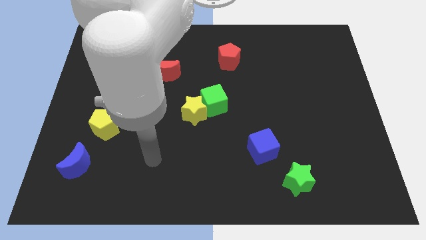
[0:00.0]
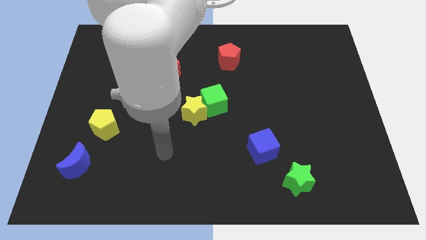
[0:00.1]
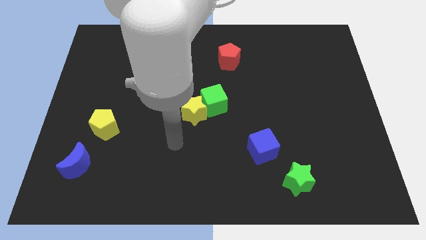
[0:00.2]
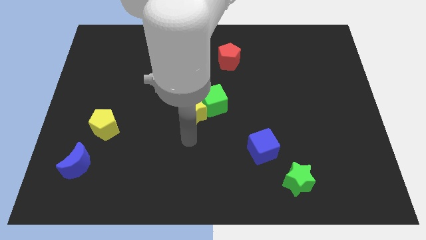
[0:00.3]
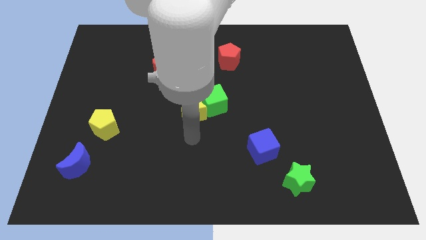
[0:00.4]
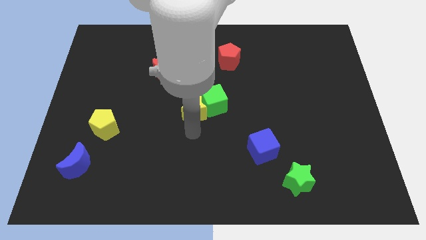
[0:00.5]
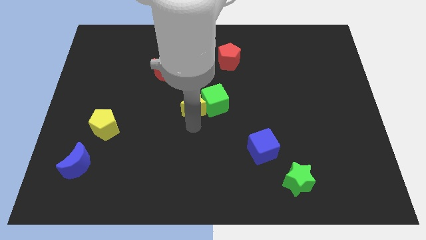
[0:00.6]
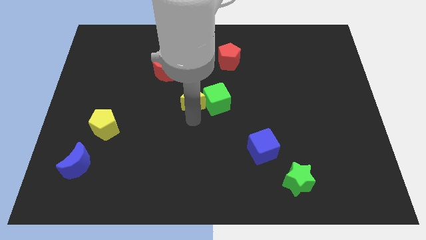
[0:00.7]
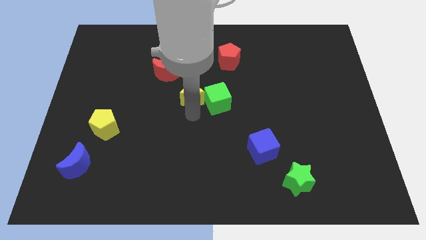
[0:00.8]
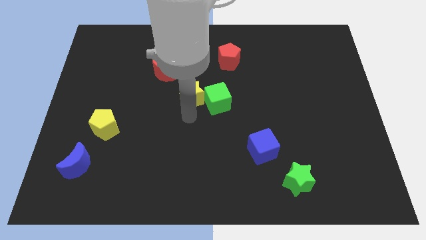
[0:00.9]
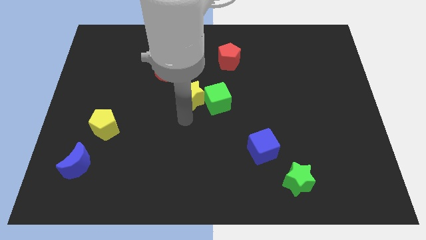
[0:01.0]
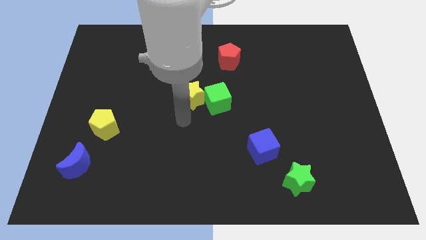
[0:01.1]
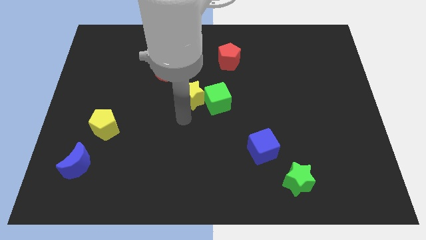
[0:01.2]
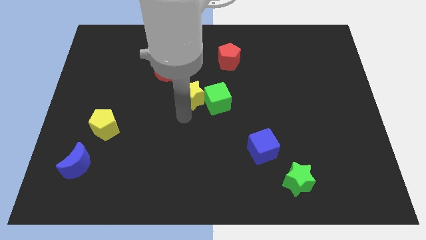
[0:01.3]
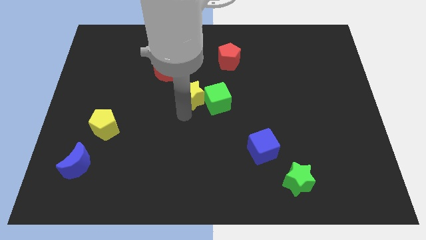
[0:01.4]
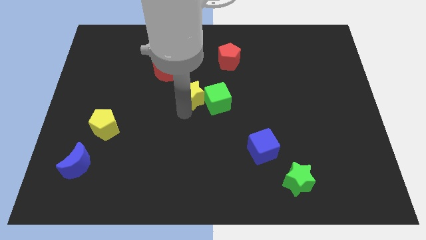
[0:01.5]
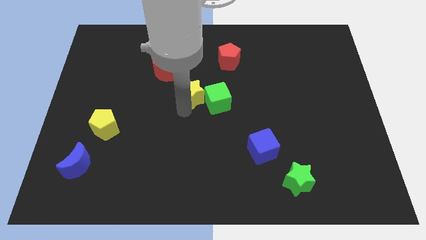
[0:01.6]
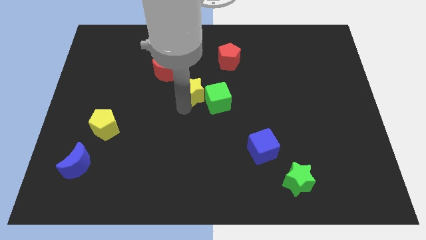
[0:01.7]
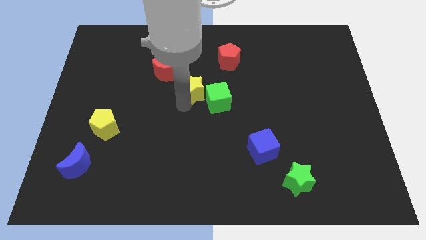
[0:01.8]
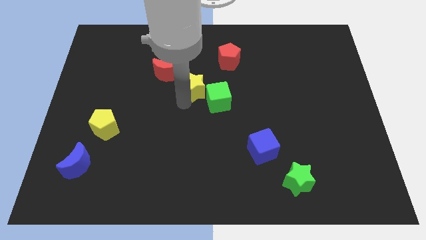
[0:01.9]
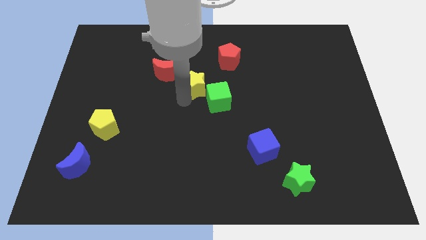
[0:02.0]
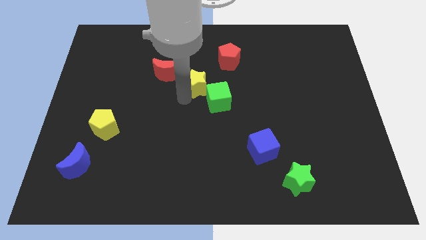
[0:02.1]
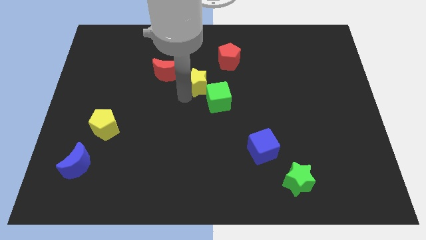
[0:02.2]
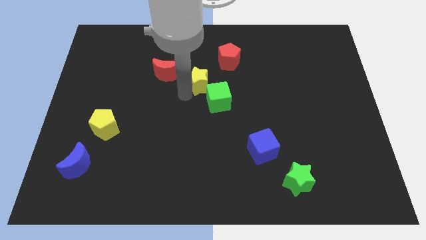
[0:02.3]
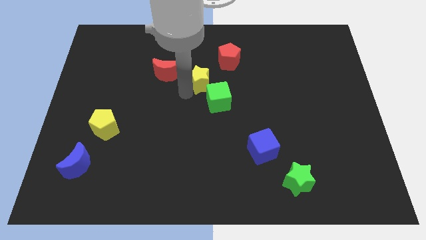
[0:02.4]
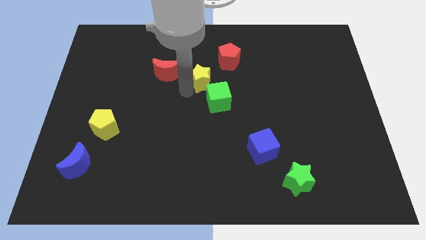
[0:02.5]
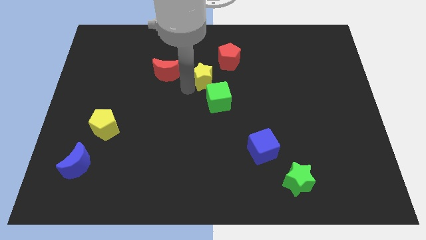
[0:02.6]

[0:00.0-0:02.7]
move the yellow star a bit up and to the right

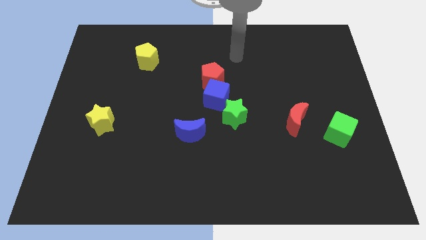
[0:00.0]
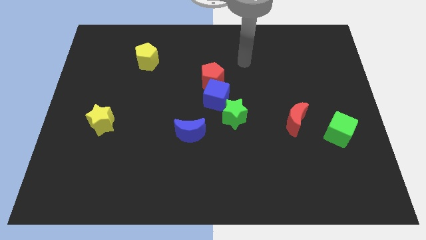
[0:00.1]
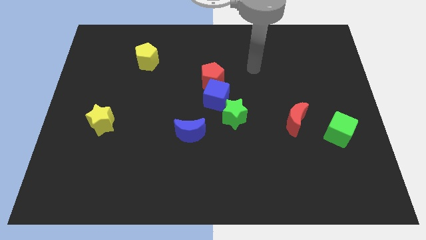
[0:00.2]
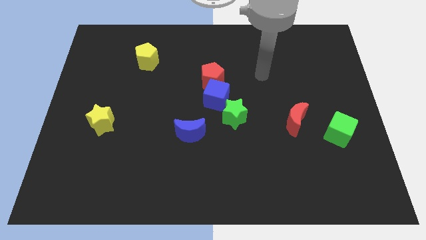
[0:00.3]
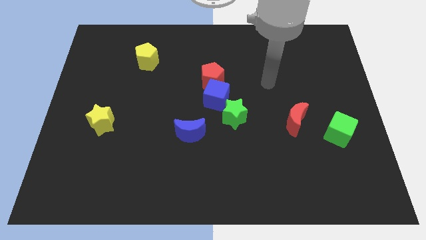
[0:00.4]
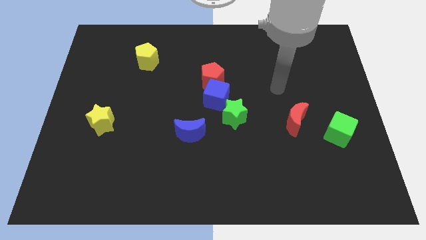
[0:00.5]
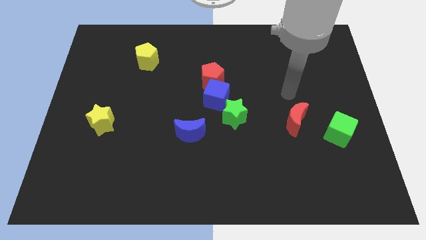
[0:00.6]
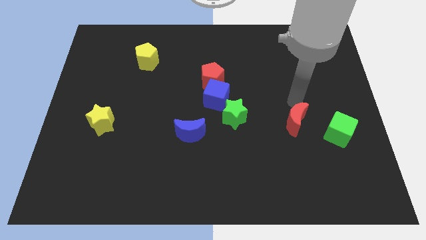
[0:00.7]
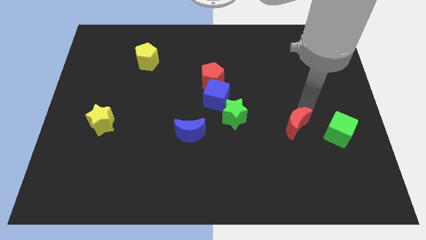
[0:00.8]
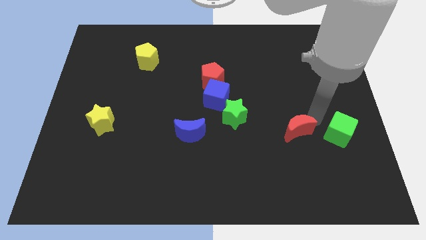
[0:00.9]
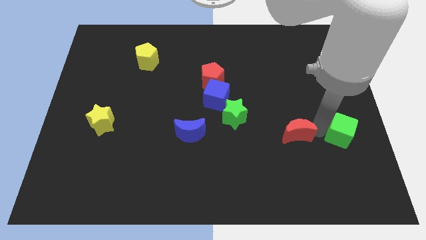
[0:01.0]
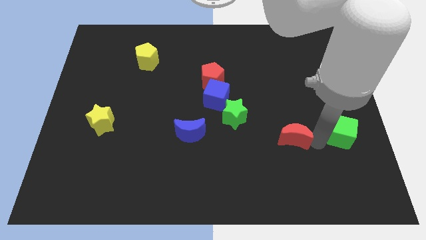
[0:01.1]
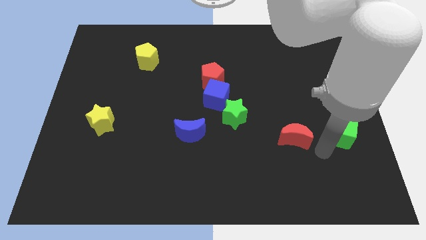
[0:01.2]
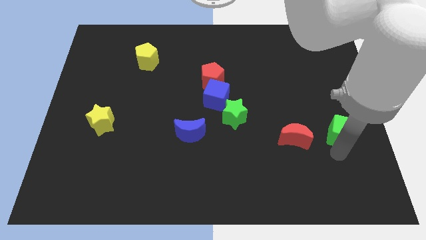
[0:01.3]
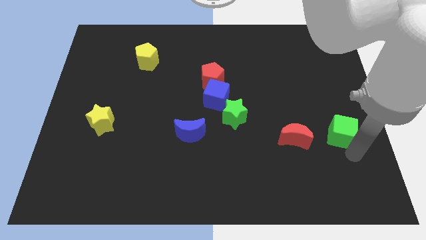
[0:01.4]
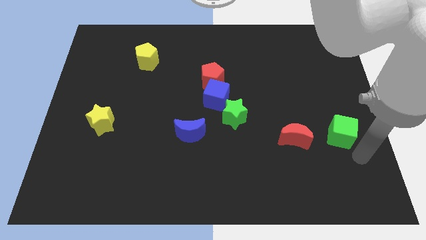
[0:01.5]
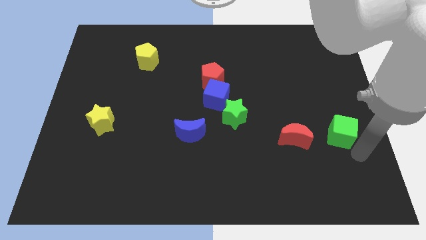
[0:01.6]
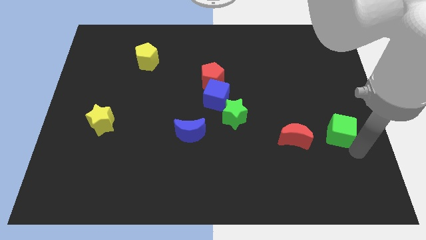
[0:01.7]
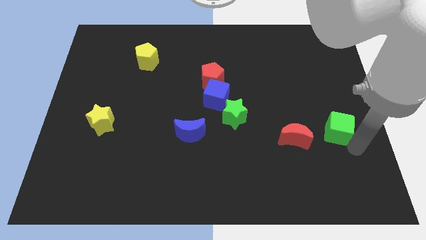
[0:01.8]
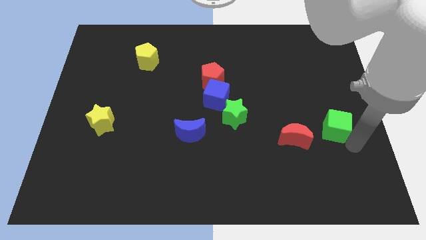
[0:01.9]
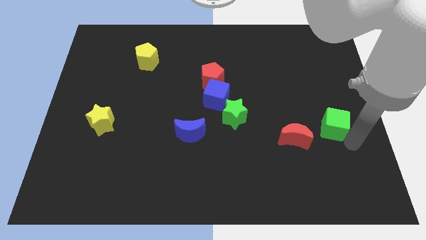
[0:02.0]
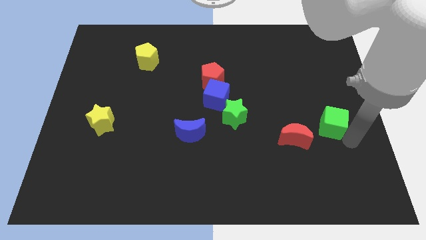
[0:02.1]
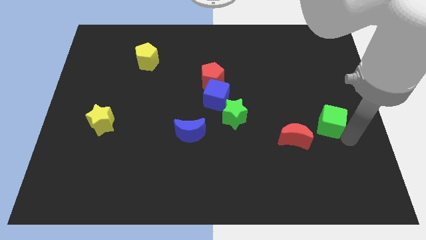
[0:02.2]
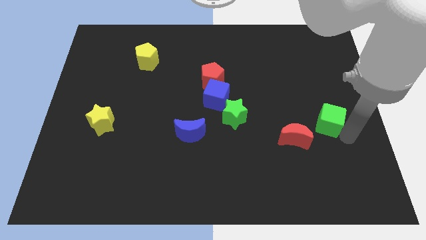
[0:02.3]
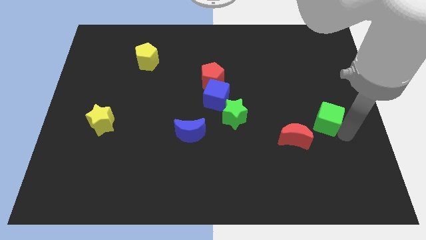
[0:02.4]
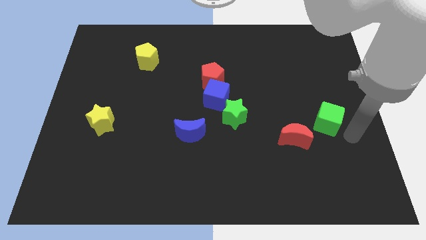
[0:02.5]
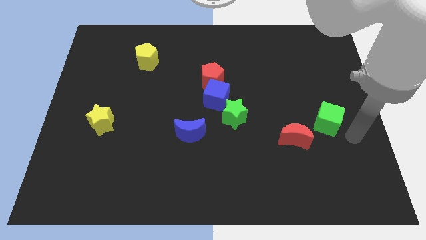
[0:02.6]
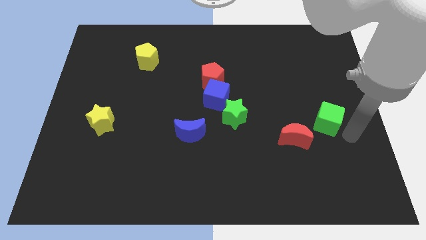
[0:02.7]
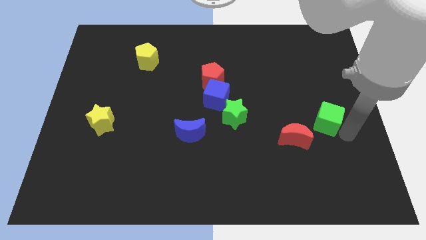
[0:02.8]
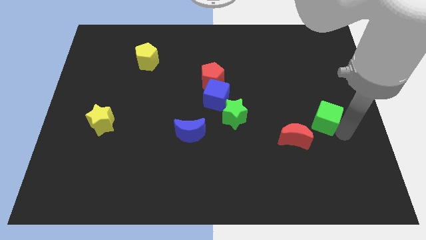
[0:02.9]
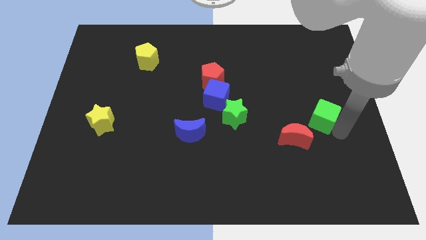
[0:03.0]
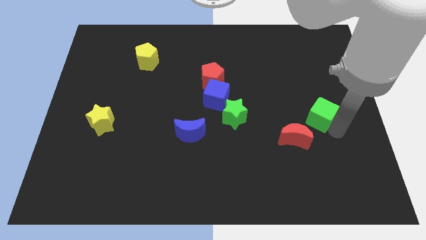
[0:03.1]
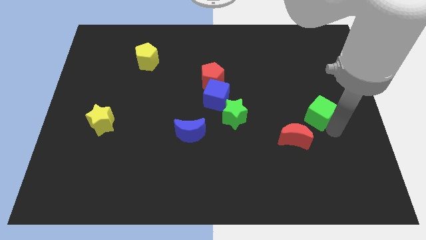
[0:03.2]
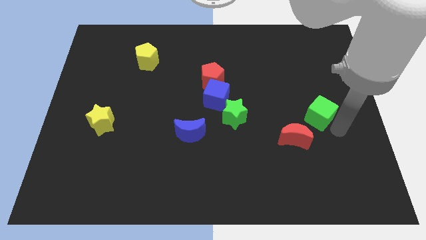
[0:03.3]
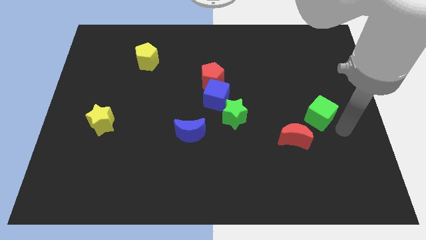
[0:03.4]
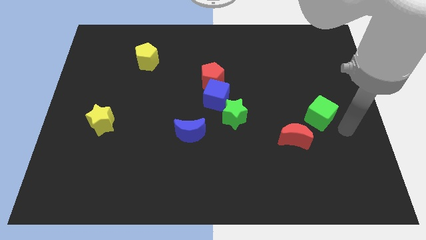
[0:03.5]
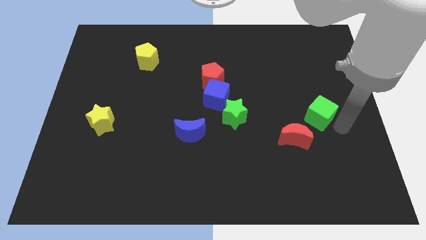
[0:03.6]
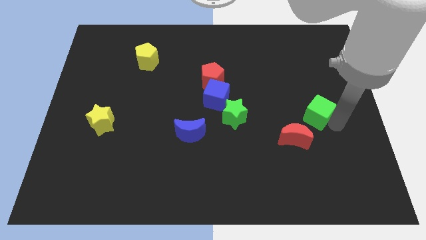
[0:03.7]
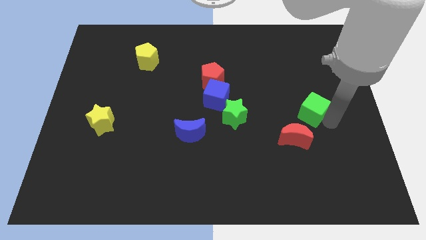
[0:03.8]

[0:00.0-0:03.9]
slightly push the green cube upwards and to the left

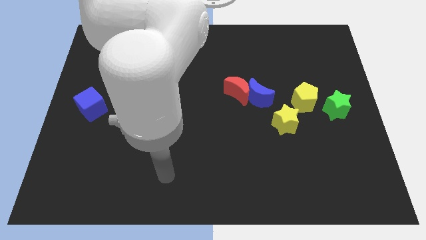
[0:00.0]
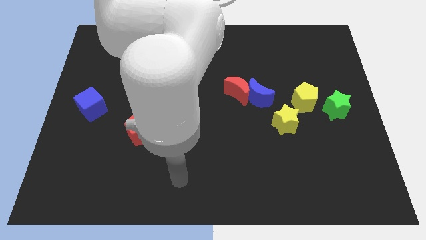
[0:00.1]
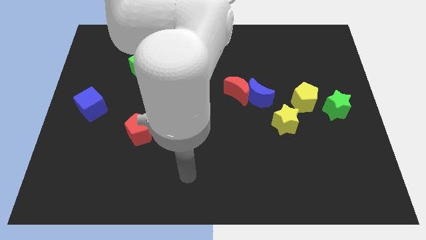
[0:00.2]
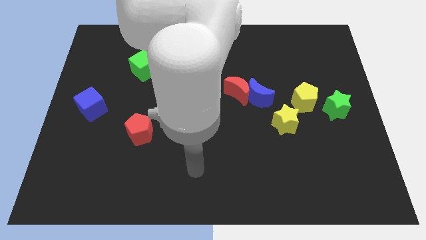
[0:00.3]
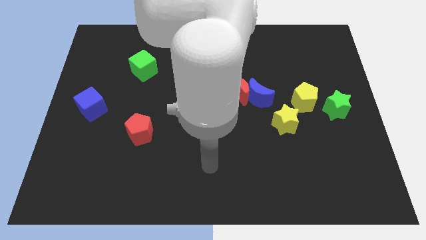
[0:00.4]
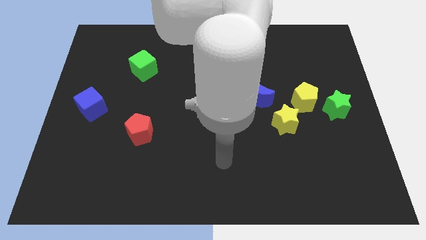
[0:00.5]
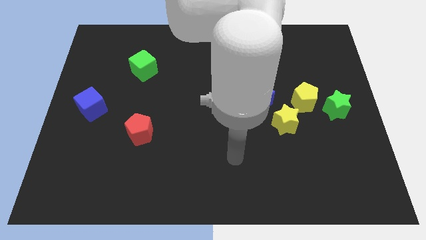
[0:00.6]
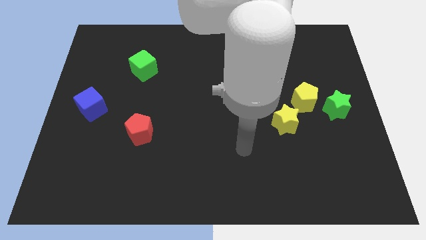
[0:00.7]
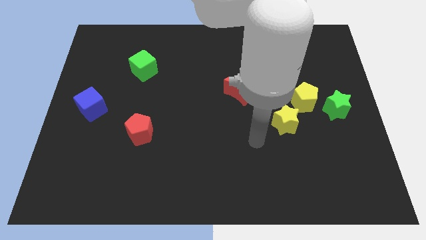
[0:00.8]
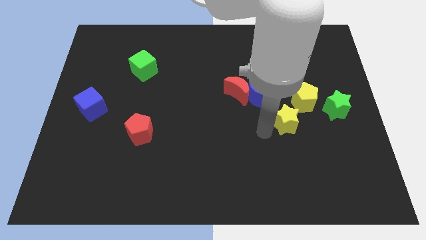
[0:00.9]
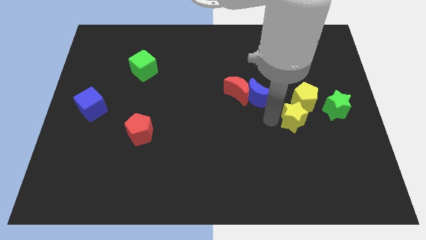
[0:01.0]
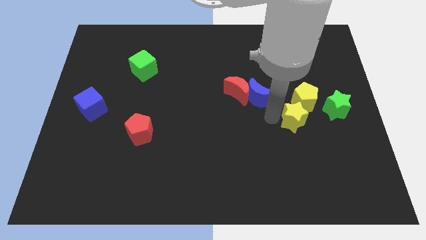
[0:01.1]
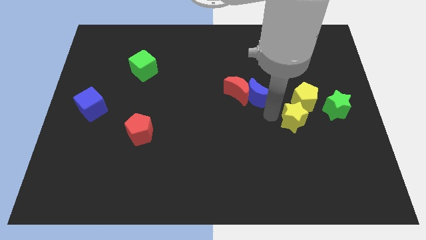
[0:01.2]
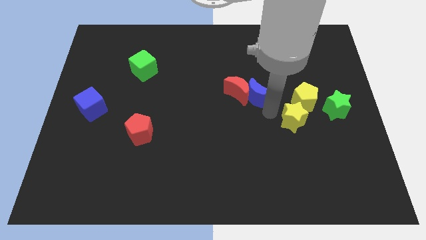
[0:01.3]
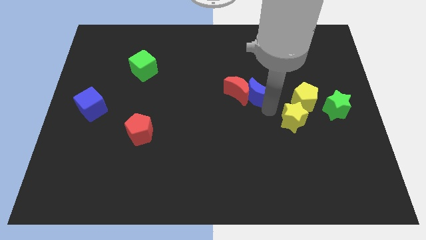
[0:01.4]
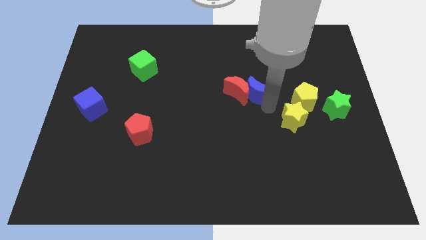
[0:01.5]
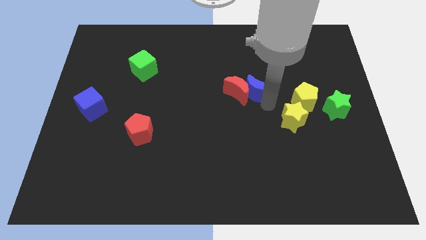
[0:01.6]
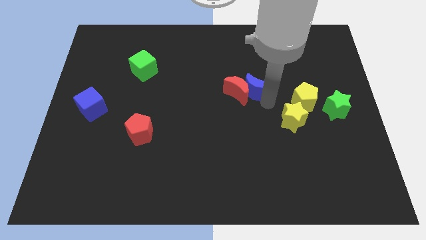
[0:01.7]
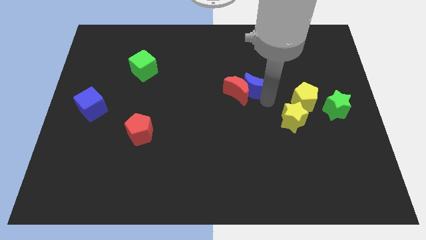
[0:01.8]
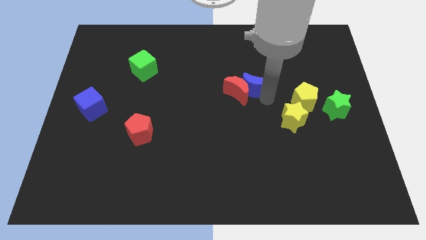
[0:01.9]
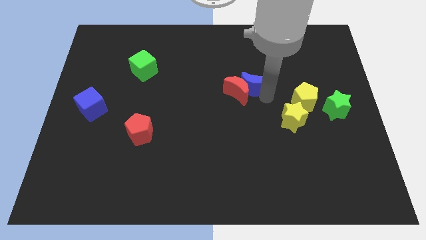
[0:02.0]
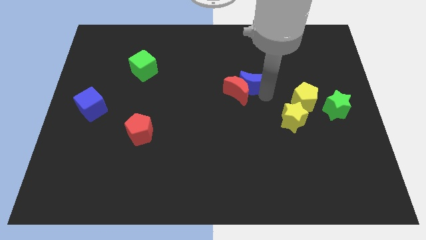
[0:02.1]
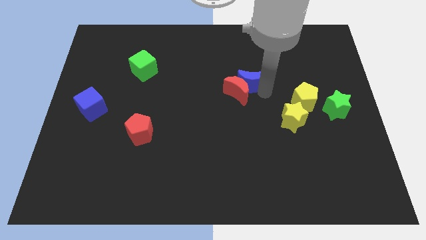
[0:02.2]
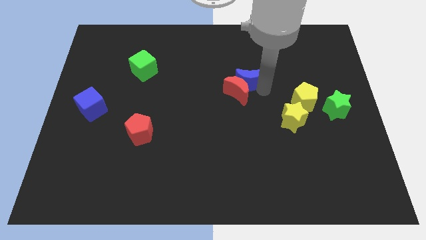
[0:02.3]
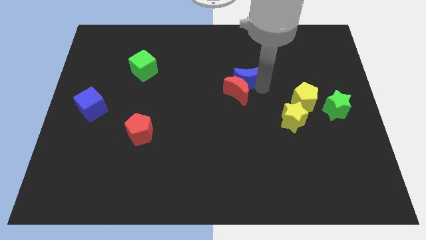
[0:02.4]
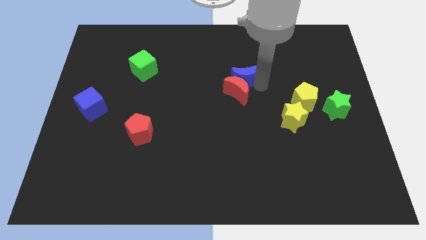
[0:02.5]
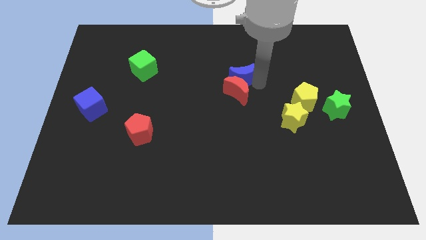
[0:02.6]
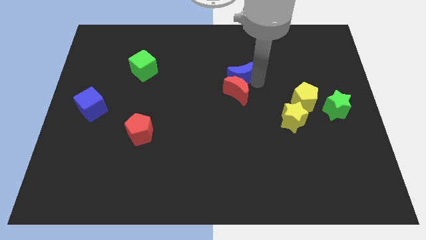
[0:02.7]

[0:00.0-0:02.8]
move the blue moon upwards and left diagonally a little bit
